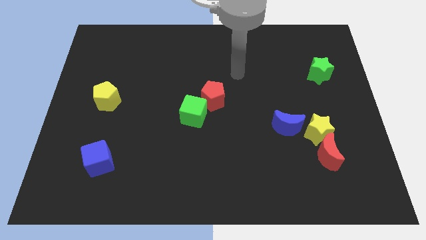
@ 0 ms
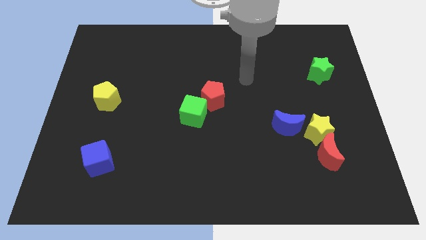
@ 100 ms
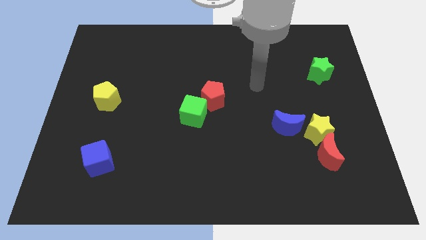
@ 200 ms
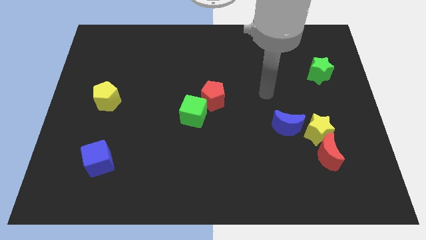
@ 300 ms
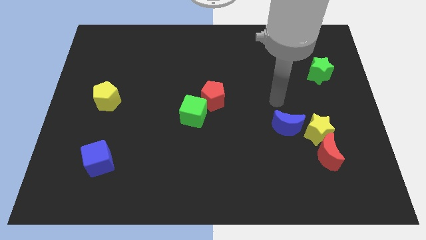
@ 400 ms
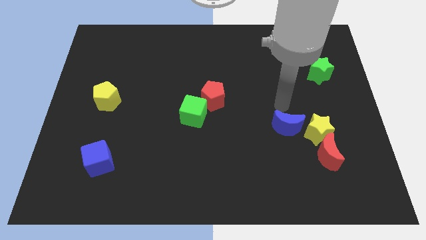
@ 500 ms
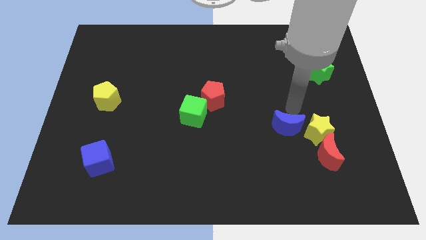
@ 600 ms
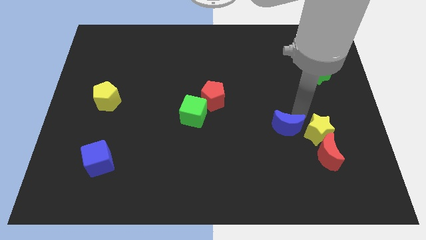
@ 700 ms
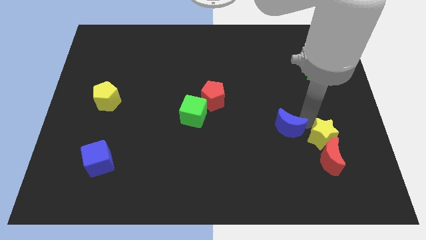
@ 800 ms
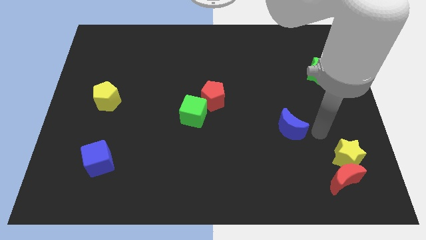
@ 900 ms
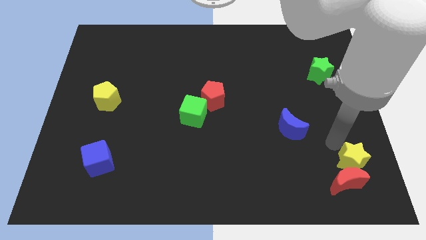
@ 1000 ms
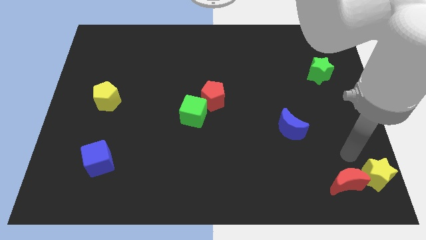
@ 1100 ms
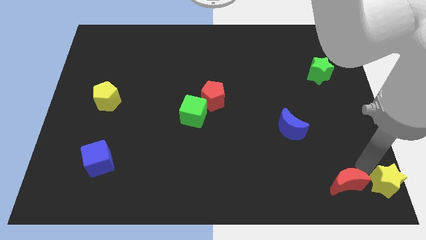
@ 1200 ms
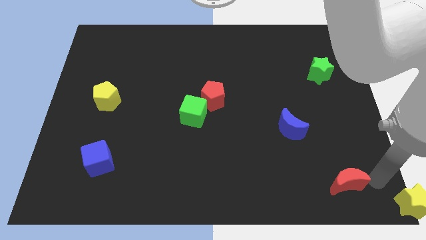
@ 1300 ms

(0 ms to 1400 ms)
pull the red moon apart from the yellow star

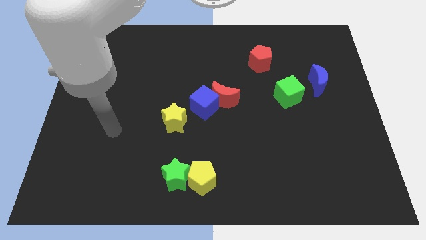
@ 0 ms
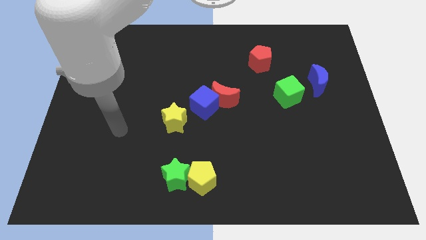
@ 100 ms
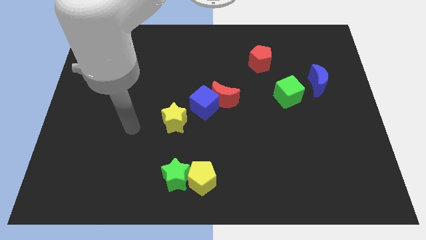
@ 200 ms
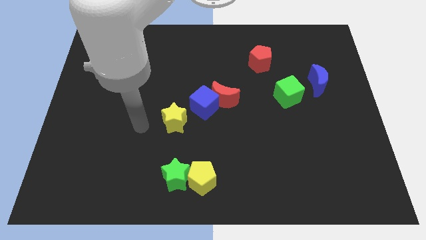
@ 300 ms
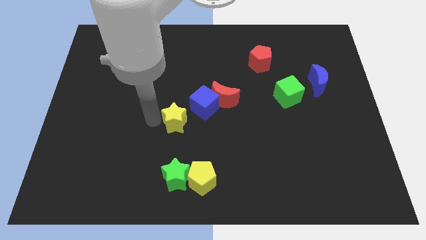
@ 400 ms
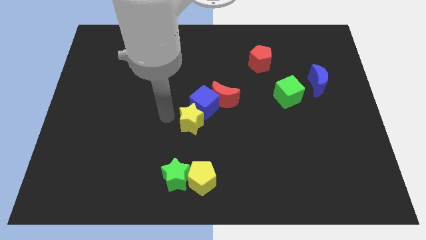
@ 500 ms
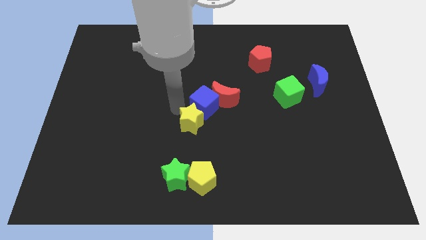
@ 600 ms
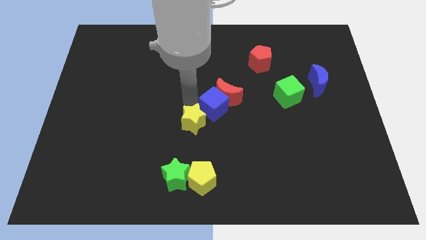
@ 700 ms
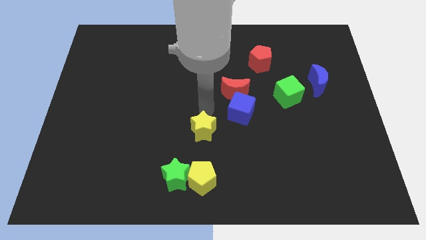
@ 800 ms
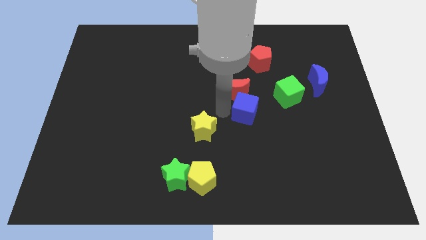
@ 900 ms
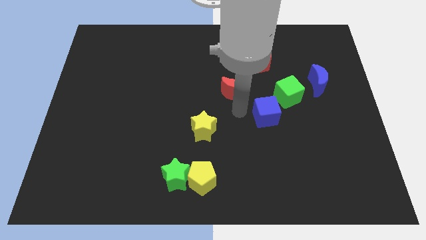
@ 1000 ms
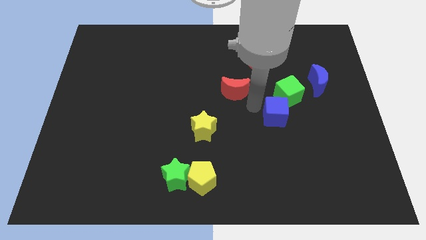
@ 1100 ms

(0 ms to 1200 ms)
move the red moon away from the blue cube

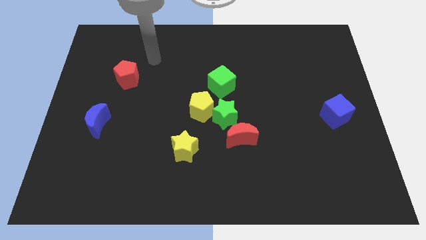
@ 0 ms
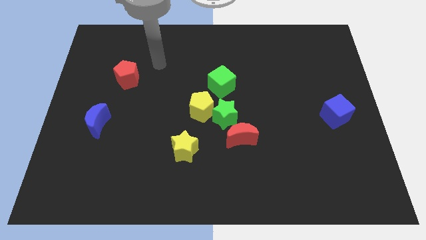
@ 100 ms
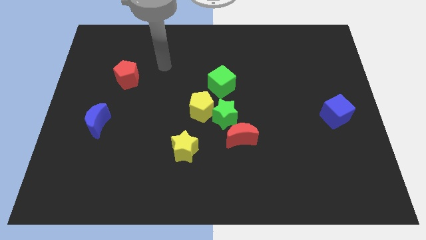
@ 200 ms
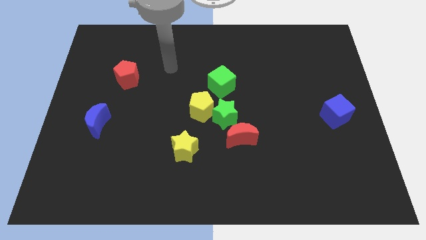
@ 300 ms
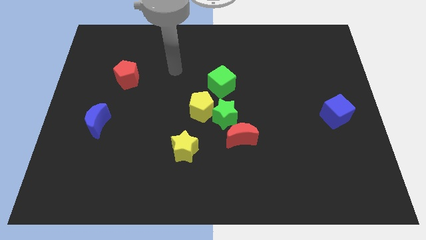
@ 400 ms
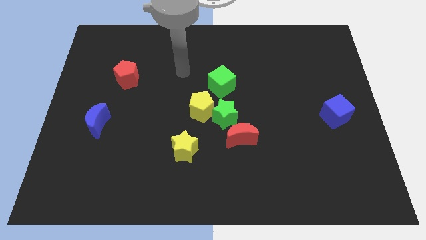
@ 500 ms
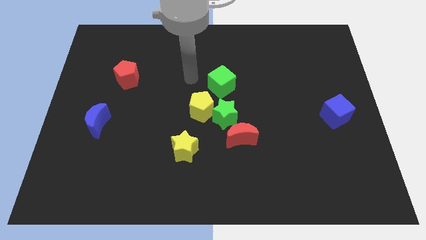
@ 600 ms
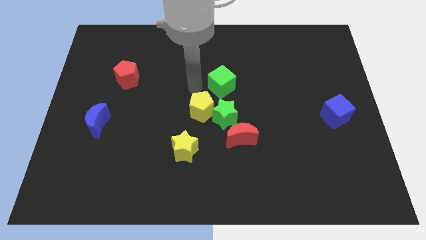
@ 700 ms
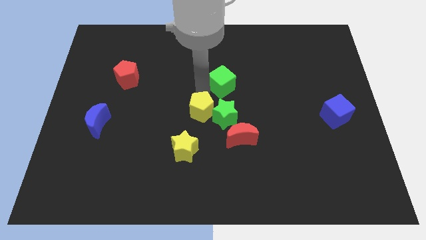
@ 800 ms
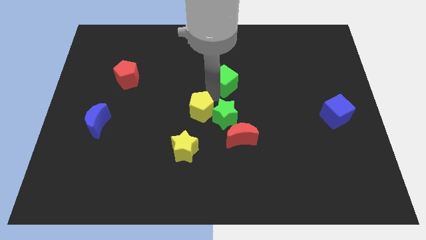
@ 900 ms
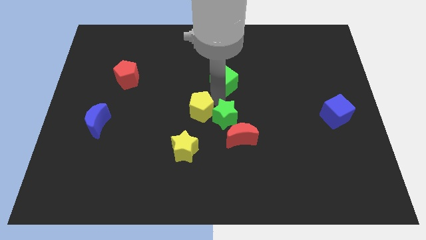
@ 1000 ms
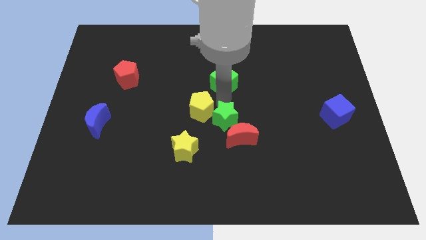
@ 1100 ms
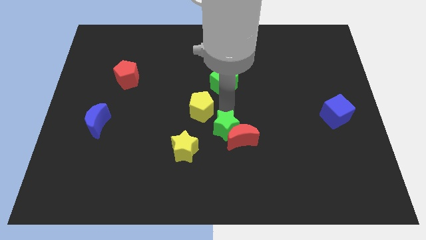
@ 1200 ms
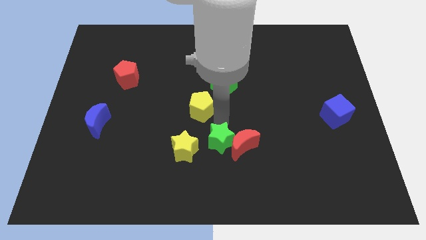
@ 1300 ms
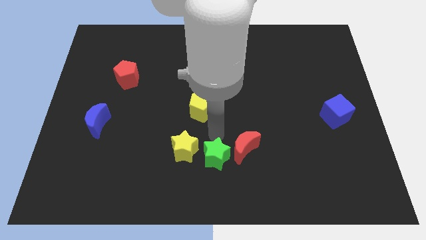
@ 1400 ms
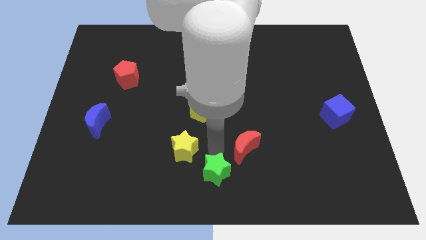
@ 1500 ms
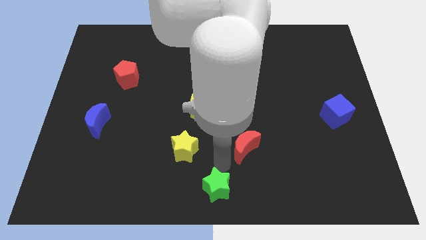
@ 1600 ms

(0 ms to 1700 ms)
pull the red moon apart from the green star

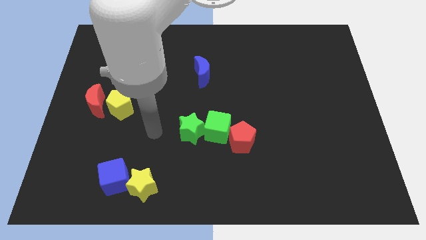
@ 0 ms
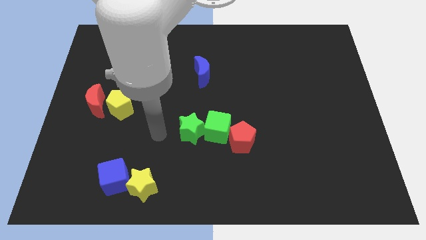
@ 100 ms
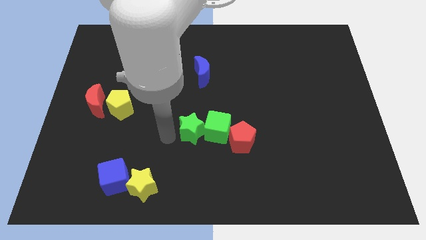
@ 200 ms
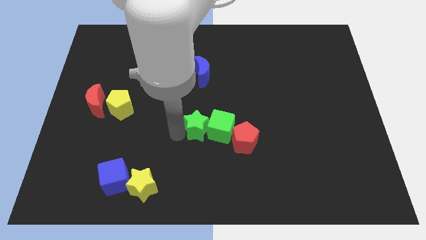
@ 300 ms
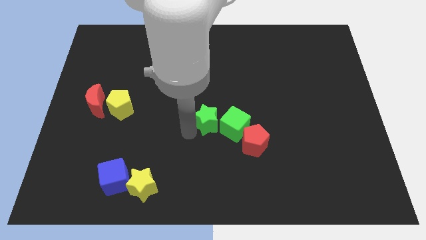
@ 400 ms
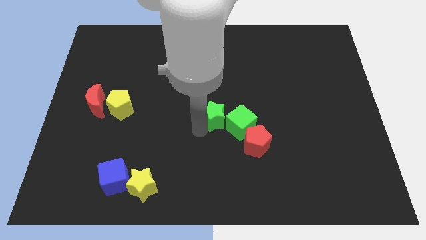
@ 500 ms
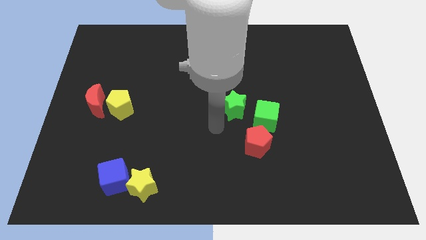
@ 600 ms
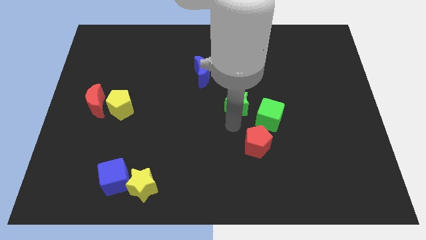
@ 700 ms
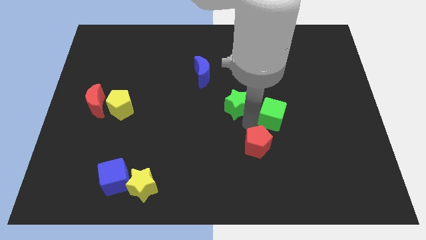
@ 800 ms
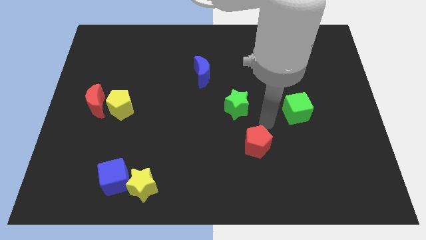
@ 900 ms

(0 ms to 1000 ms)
separate the red pentagon from the green cube

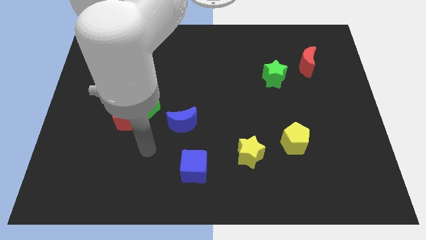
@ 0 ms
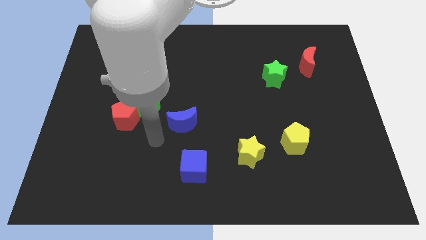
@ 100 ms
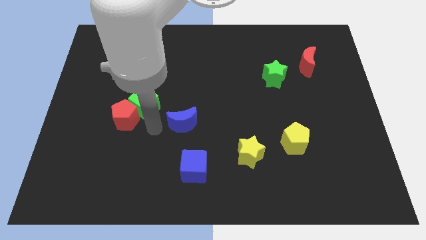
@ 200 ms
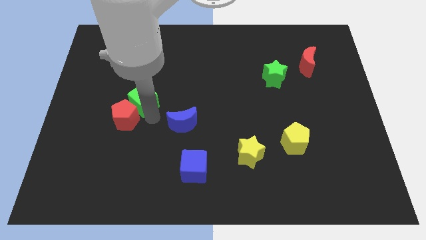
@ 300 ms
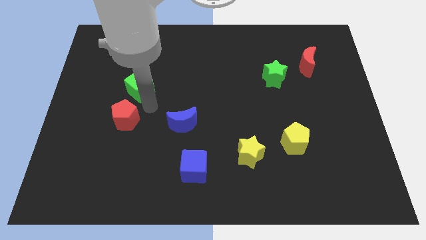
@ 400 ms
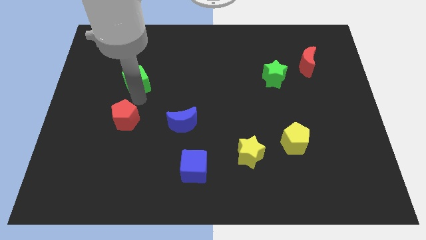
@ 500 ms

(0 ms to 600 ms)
pull the red pentagon apart from the green cube

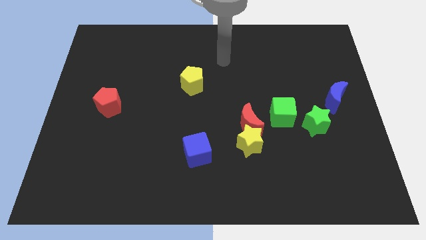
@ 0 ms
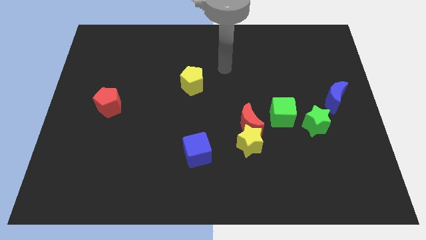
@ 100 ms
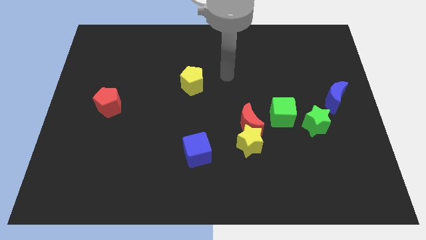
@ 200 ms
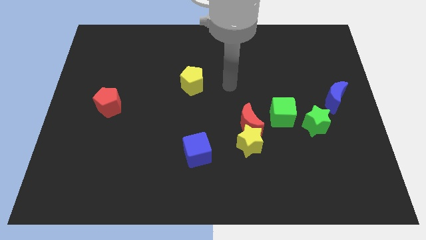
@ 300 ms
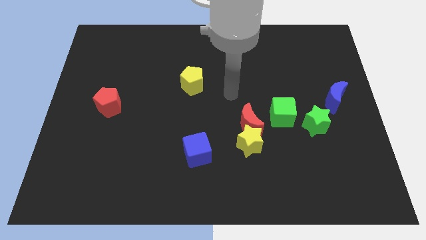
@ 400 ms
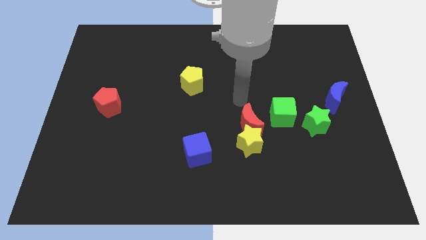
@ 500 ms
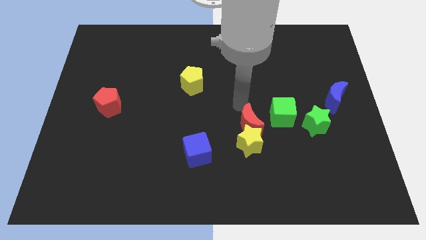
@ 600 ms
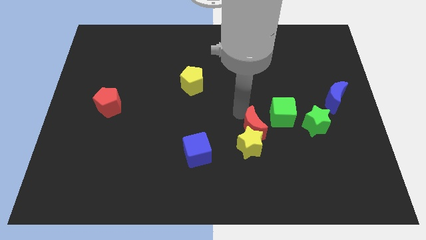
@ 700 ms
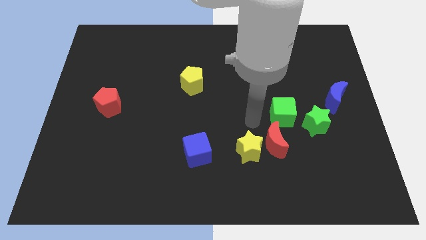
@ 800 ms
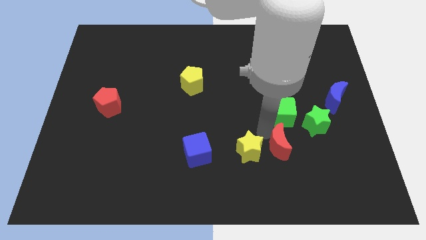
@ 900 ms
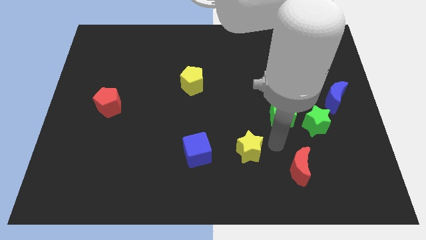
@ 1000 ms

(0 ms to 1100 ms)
move the yellow star away from the red moon

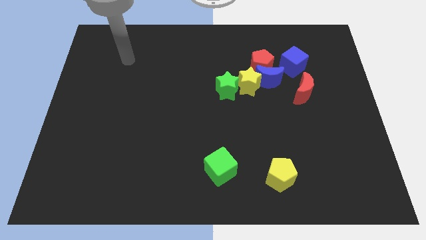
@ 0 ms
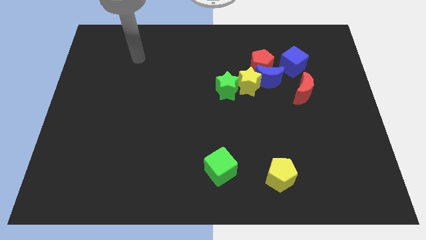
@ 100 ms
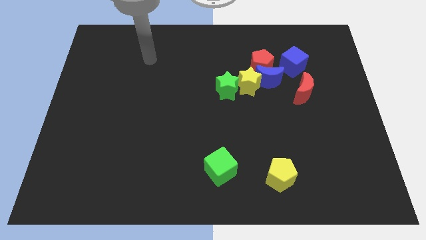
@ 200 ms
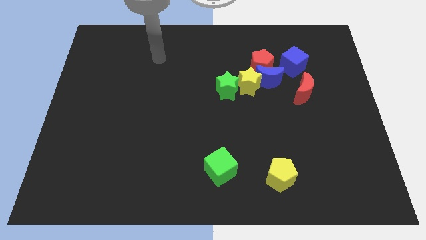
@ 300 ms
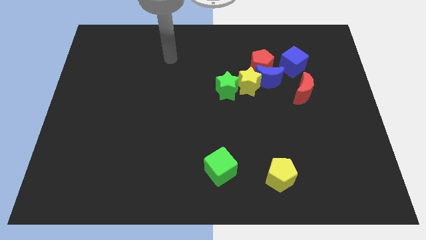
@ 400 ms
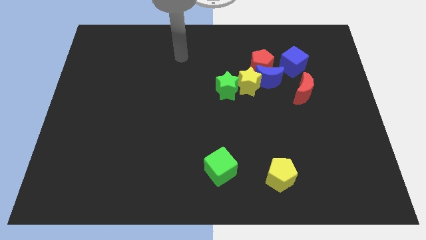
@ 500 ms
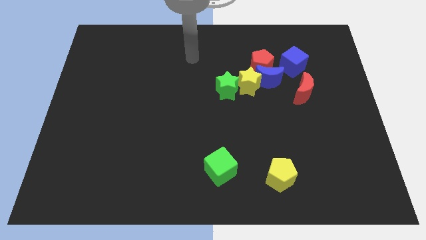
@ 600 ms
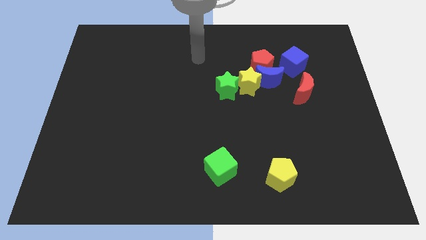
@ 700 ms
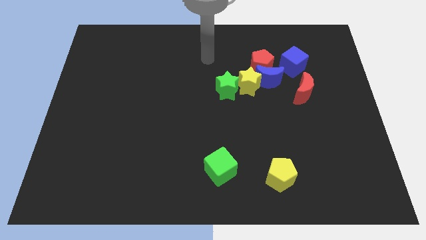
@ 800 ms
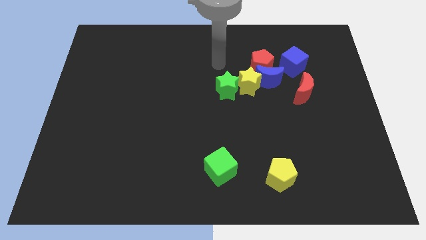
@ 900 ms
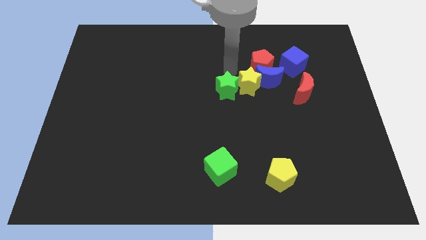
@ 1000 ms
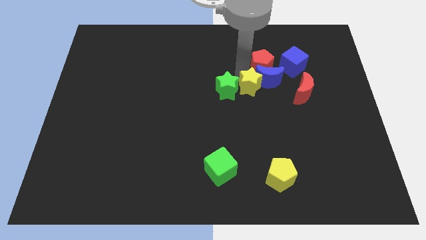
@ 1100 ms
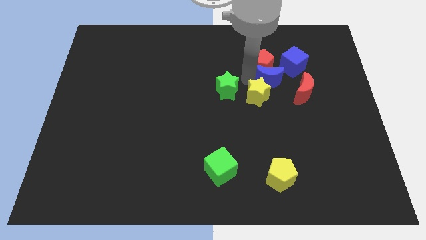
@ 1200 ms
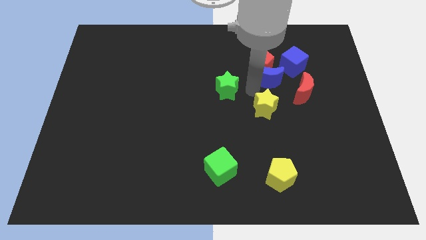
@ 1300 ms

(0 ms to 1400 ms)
move the green star away from the yellow star

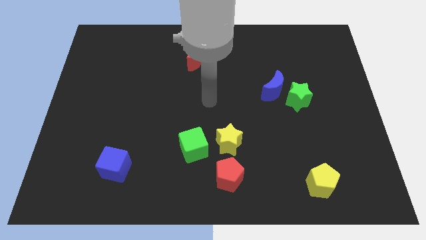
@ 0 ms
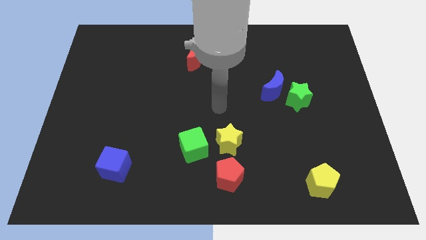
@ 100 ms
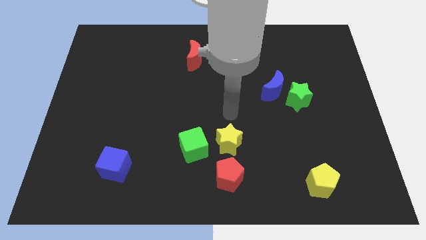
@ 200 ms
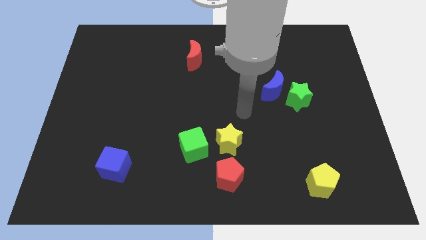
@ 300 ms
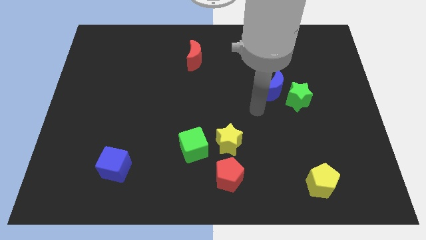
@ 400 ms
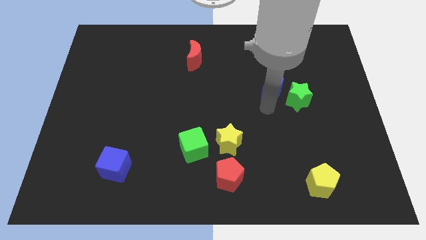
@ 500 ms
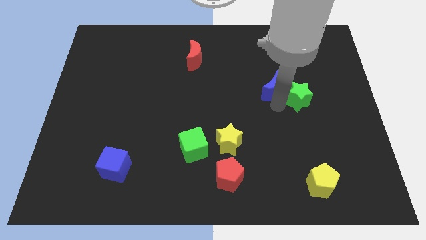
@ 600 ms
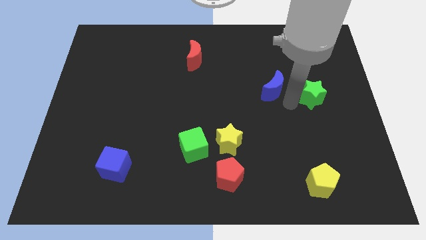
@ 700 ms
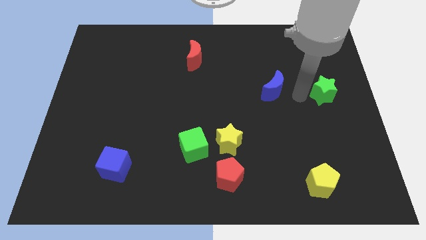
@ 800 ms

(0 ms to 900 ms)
pull the blue moon apart from the green star
